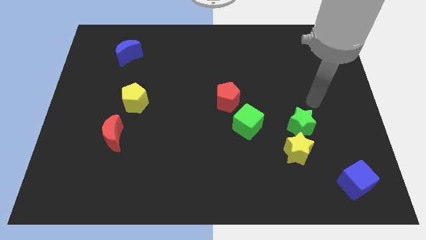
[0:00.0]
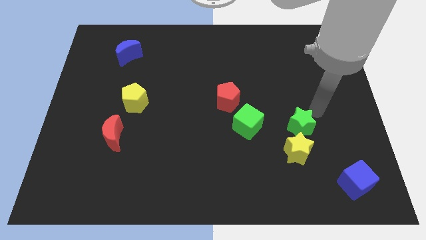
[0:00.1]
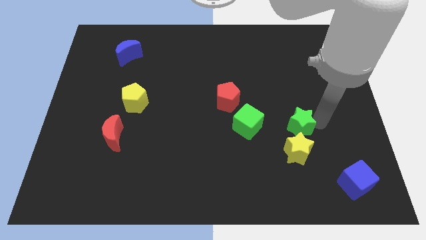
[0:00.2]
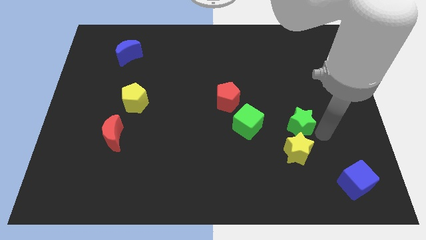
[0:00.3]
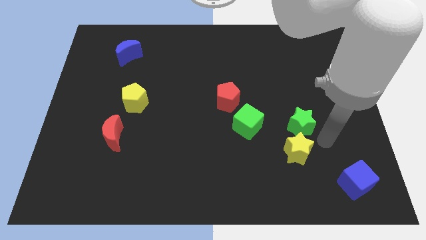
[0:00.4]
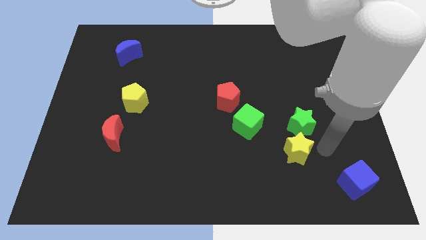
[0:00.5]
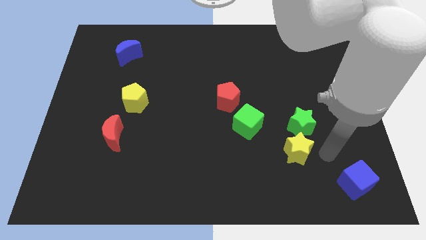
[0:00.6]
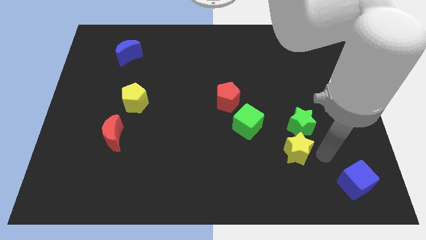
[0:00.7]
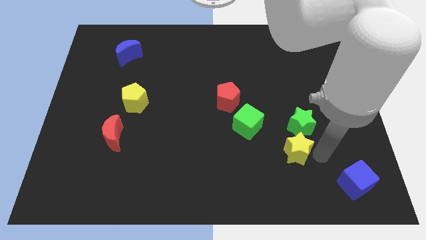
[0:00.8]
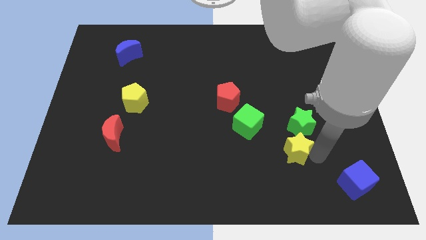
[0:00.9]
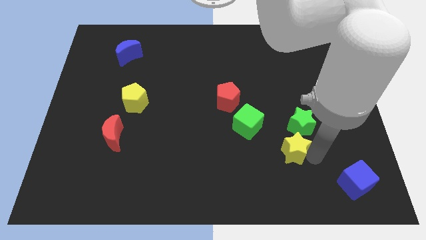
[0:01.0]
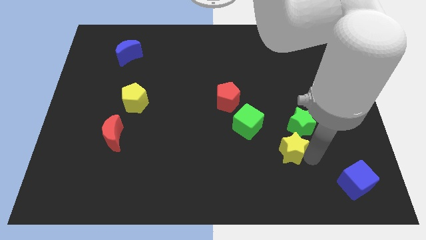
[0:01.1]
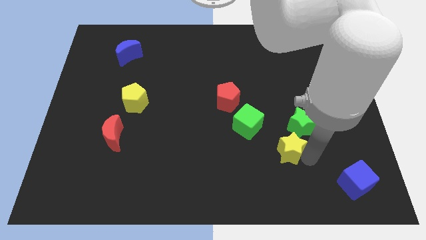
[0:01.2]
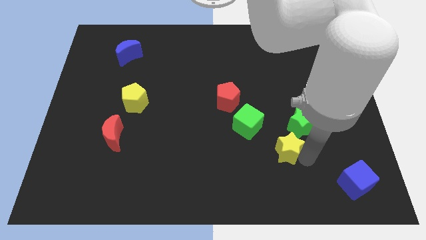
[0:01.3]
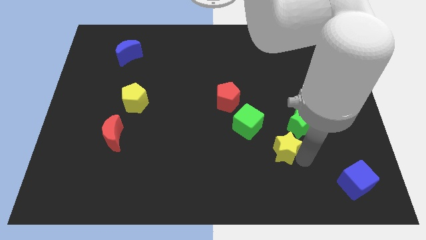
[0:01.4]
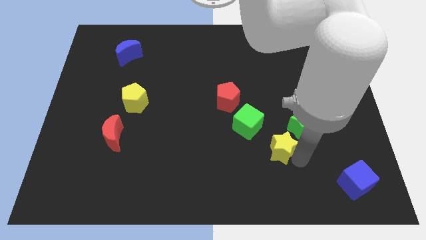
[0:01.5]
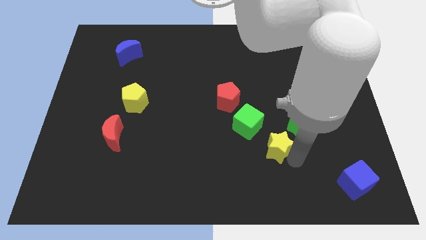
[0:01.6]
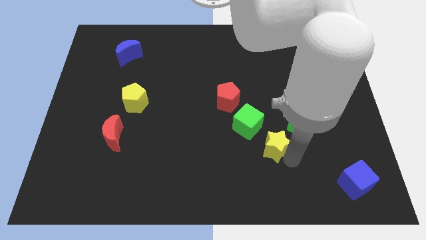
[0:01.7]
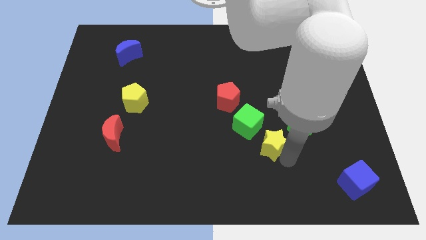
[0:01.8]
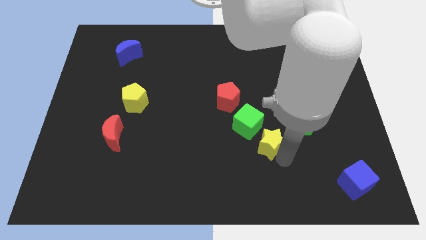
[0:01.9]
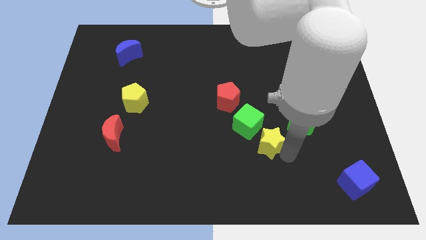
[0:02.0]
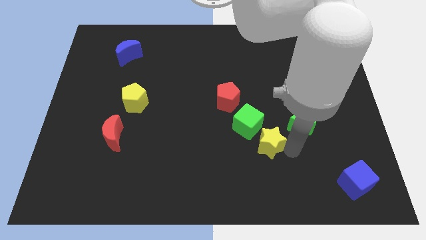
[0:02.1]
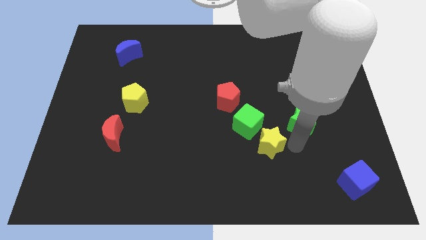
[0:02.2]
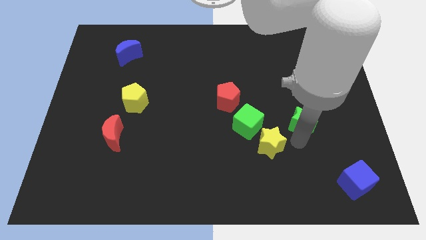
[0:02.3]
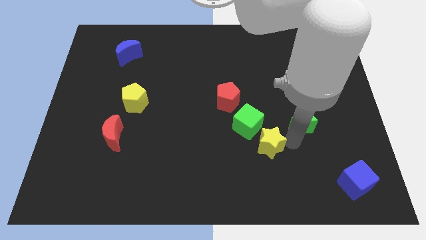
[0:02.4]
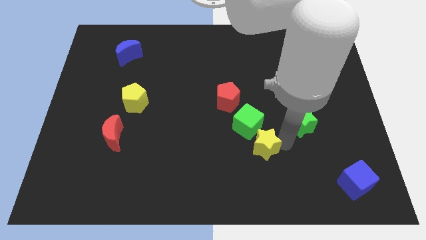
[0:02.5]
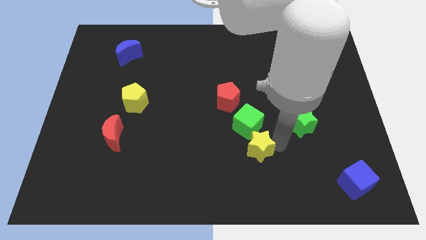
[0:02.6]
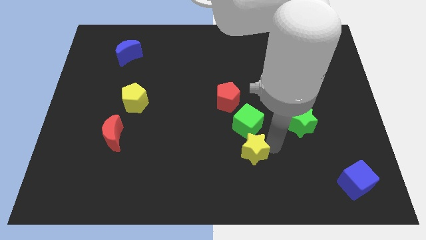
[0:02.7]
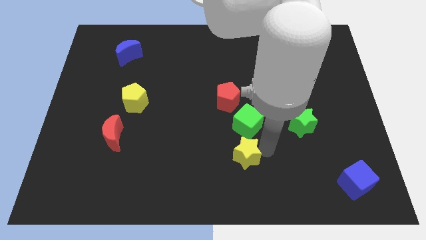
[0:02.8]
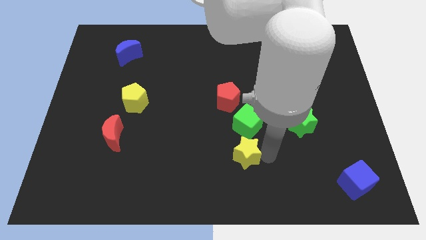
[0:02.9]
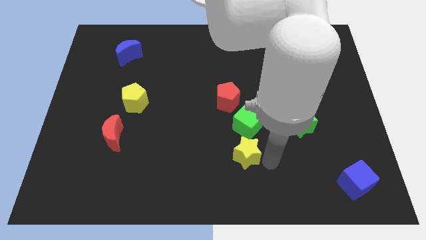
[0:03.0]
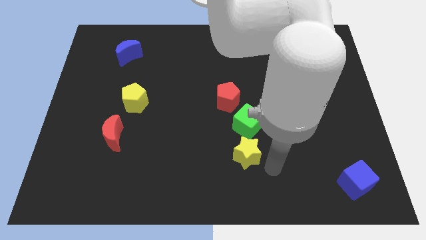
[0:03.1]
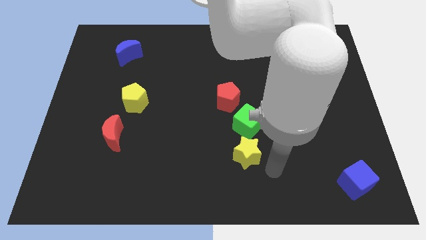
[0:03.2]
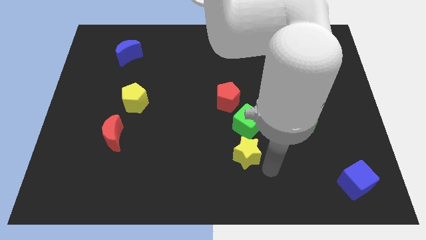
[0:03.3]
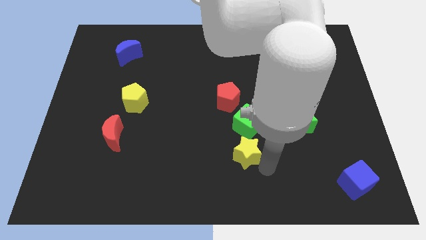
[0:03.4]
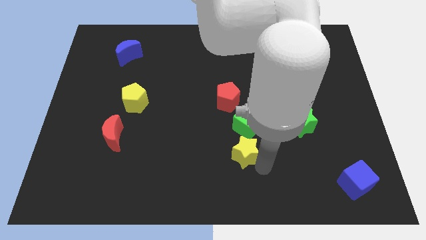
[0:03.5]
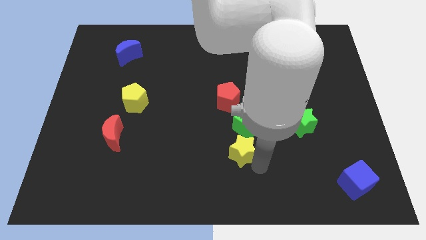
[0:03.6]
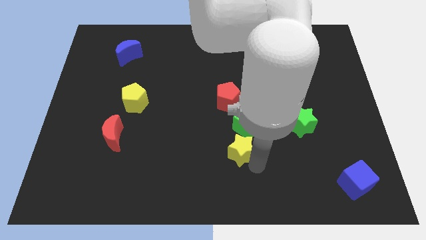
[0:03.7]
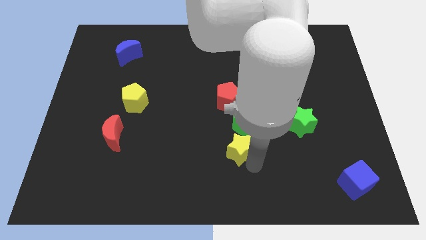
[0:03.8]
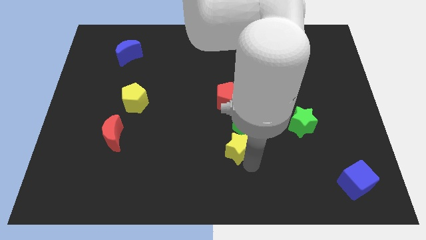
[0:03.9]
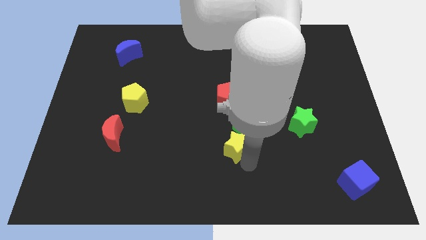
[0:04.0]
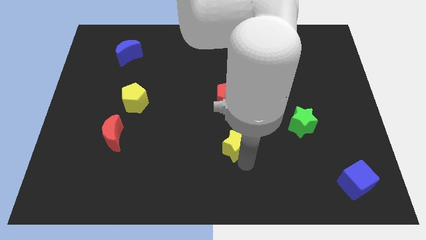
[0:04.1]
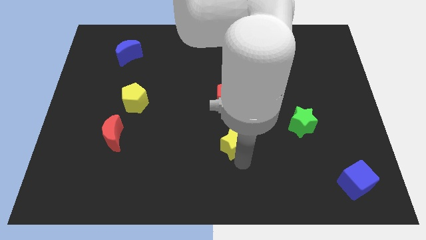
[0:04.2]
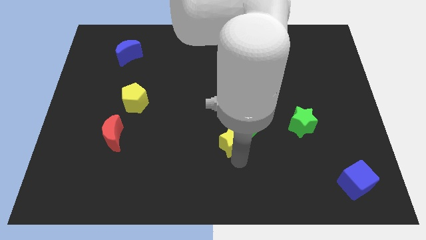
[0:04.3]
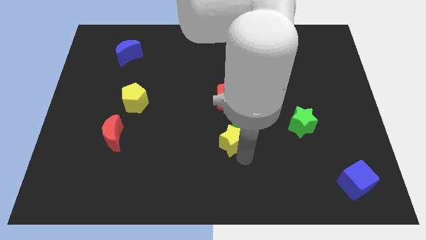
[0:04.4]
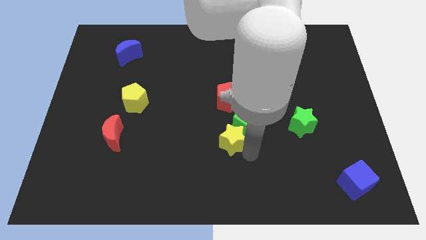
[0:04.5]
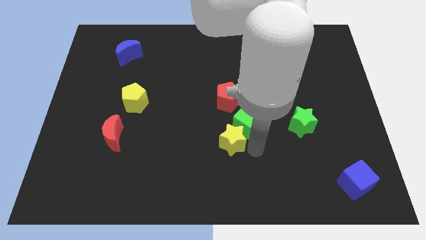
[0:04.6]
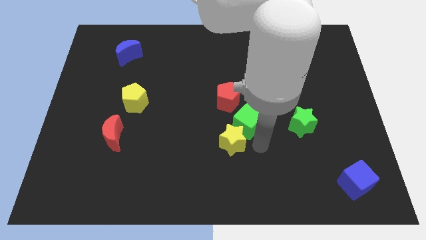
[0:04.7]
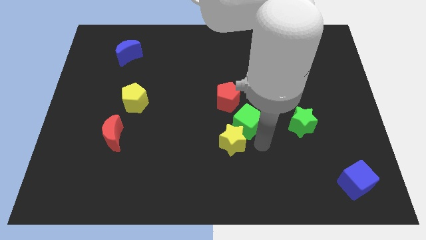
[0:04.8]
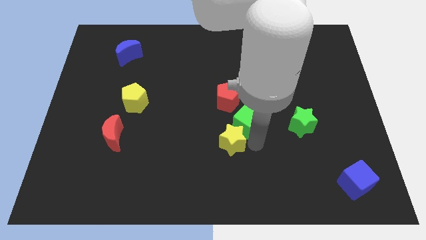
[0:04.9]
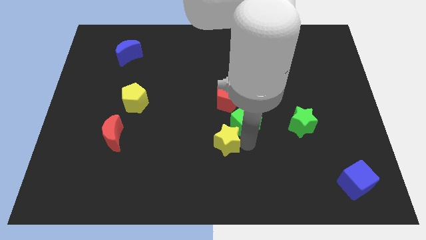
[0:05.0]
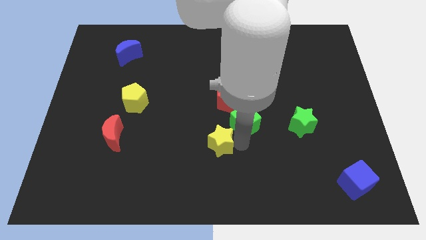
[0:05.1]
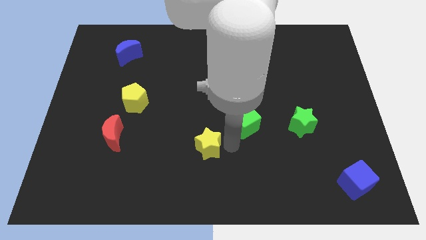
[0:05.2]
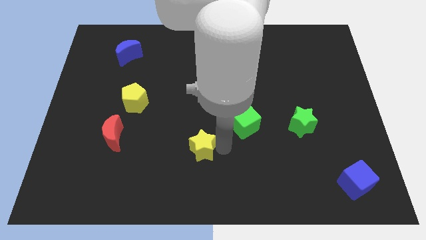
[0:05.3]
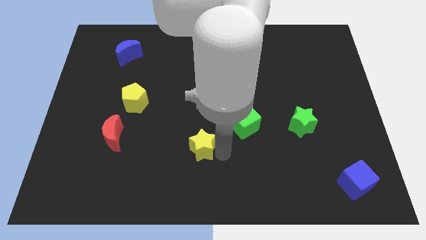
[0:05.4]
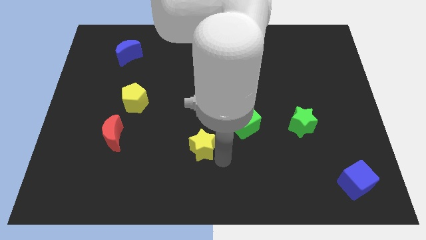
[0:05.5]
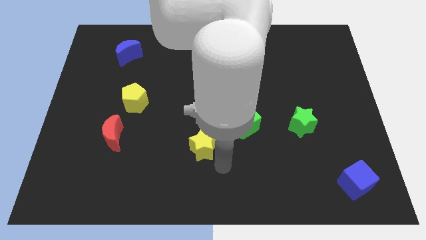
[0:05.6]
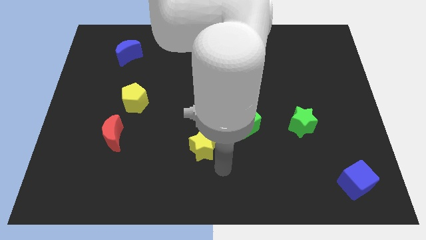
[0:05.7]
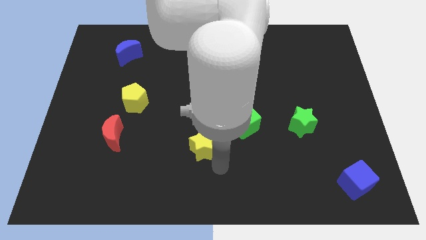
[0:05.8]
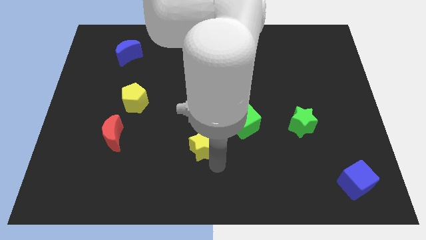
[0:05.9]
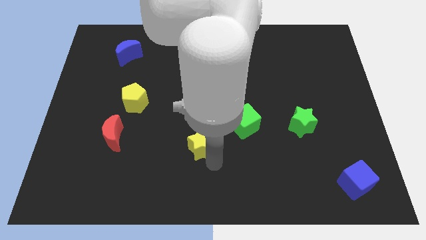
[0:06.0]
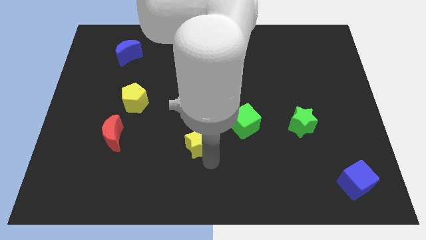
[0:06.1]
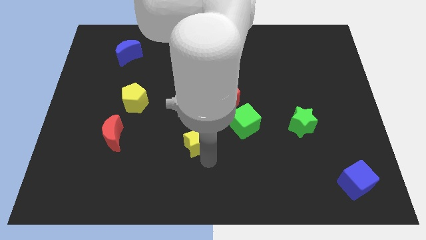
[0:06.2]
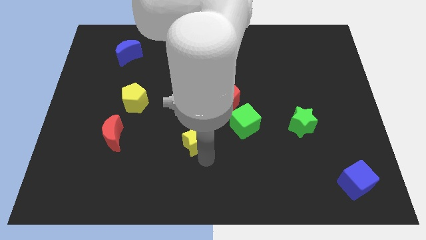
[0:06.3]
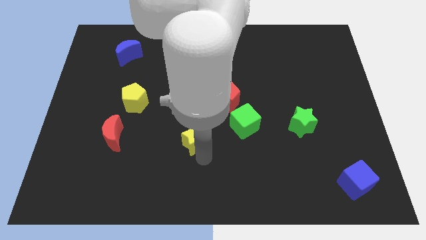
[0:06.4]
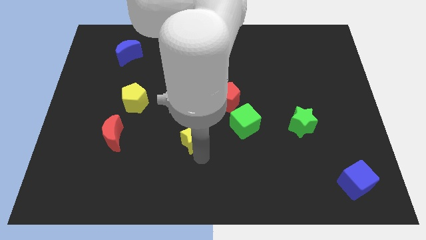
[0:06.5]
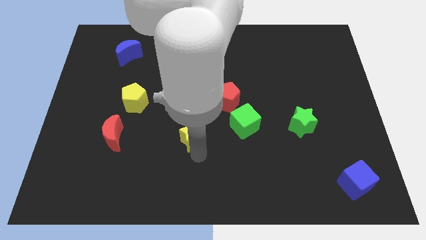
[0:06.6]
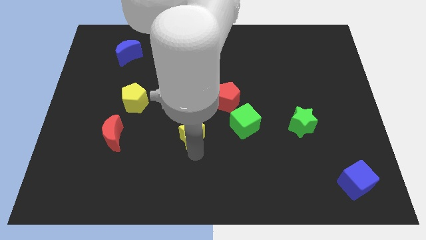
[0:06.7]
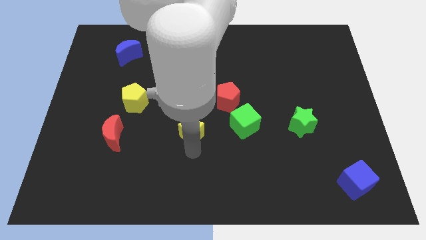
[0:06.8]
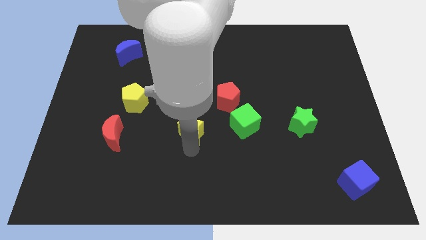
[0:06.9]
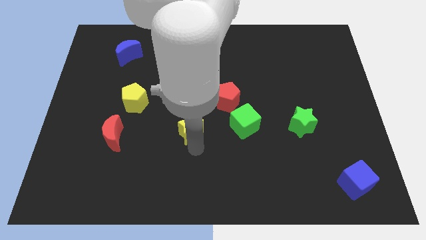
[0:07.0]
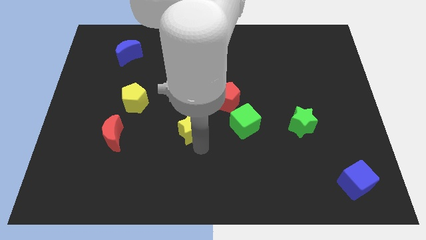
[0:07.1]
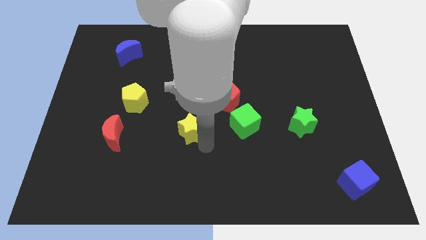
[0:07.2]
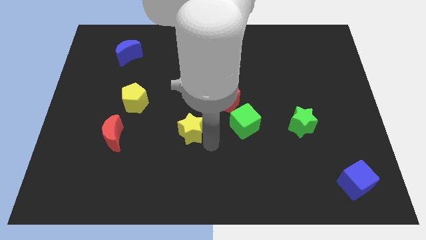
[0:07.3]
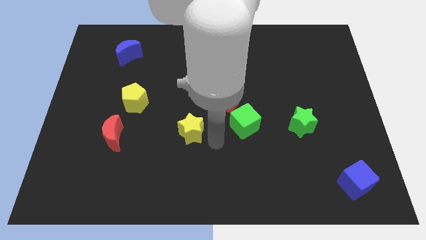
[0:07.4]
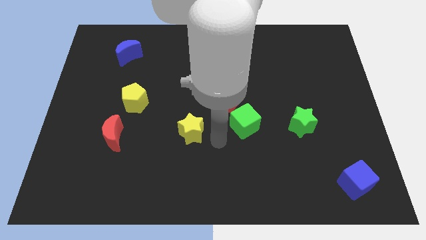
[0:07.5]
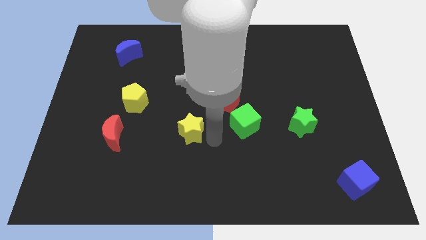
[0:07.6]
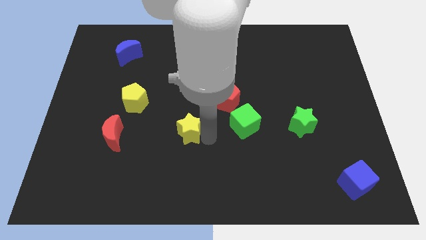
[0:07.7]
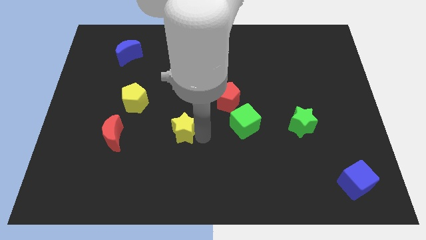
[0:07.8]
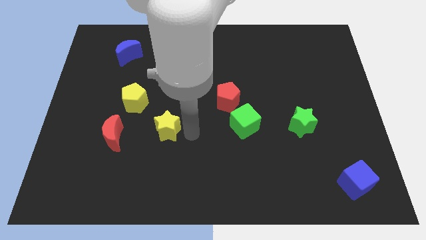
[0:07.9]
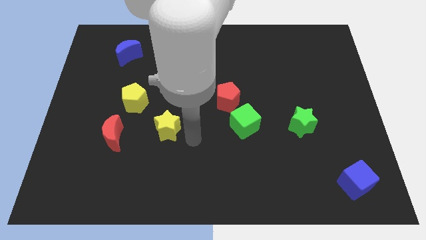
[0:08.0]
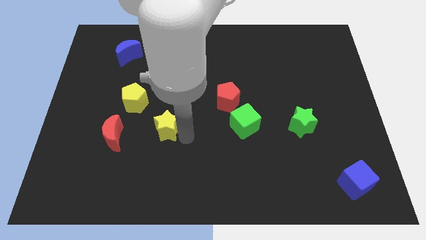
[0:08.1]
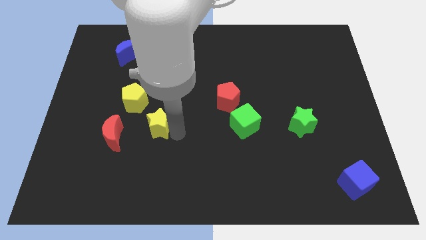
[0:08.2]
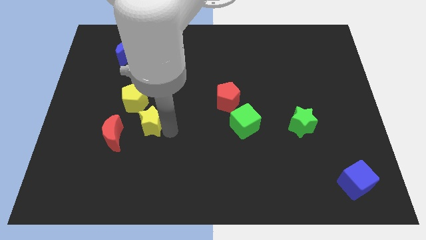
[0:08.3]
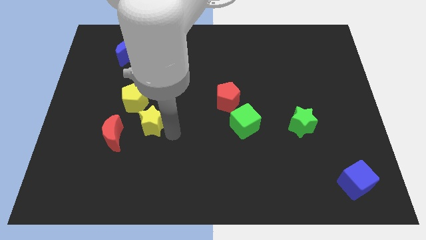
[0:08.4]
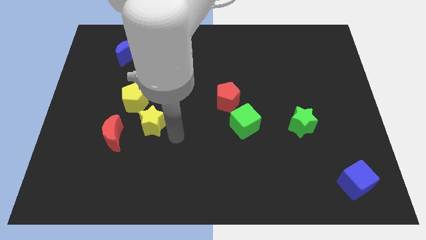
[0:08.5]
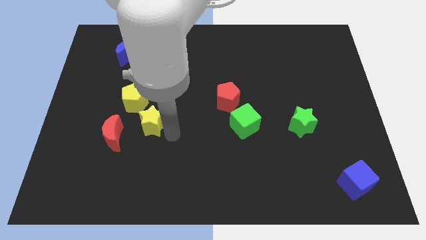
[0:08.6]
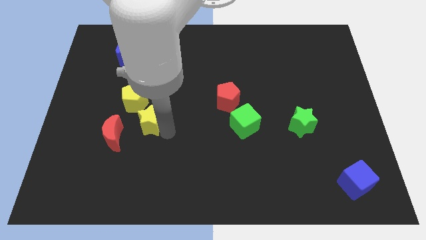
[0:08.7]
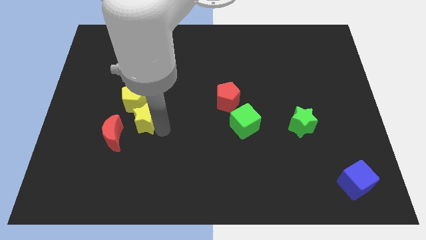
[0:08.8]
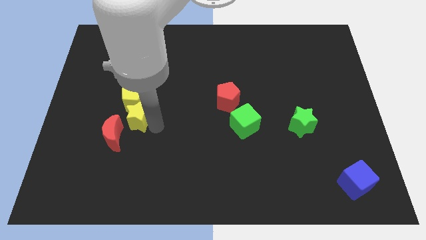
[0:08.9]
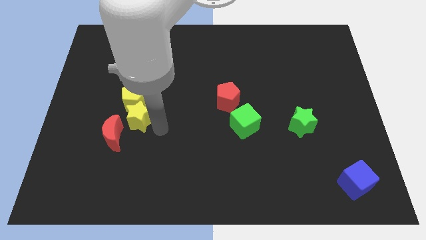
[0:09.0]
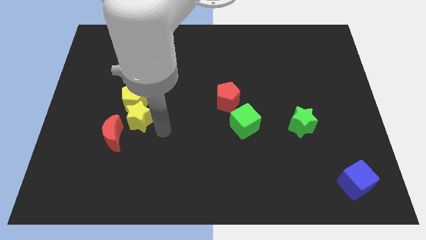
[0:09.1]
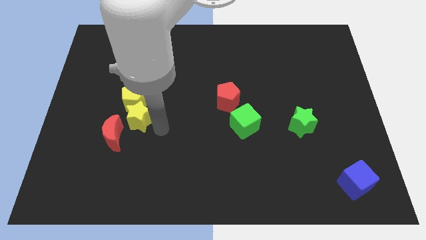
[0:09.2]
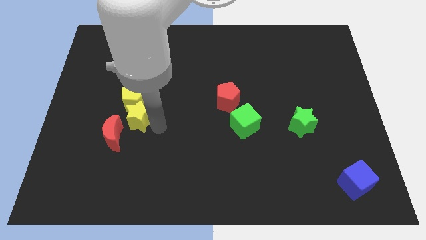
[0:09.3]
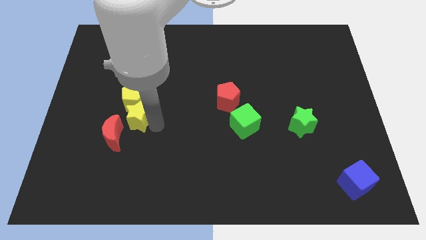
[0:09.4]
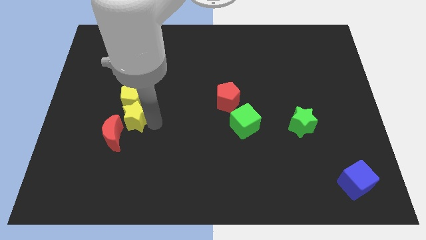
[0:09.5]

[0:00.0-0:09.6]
push the yellow star above the red moon
